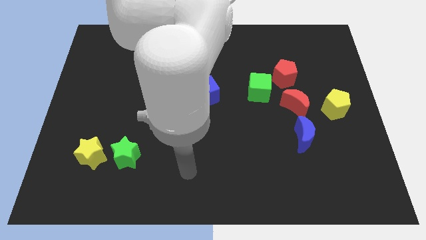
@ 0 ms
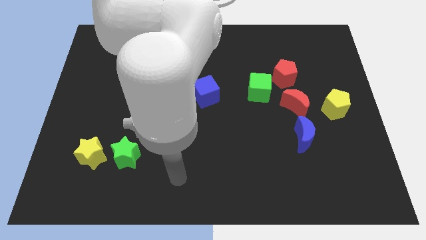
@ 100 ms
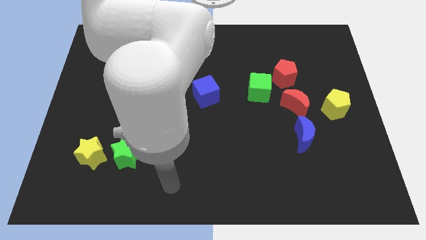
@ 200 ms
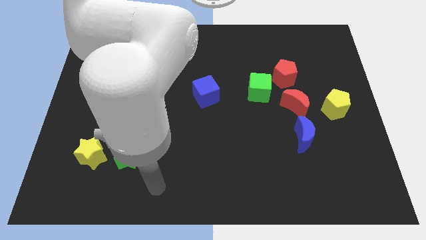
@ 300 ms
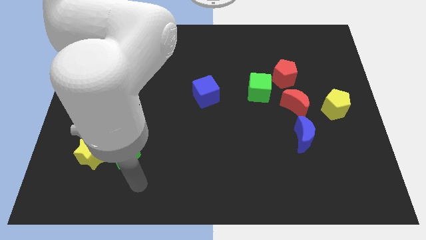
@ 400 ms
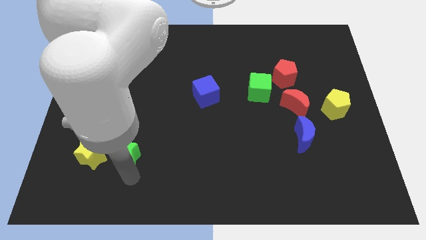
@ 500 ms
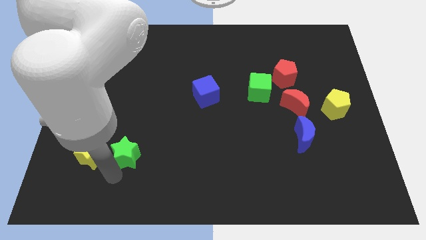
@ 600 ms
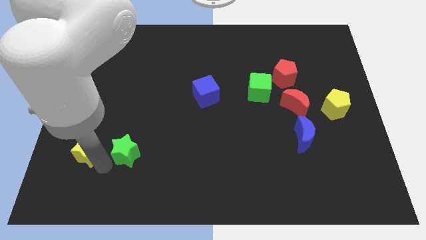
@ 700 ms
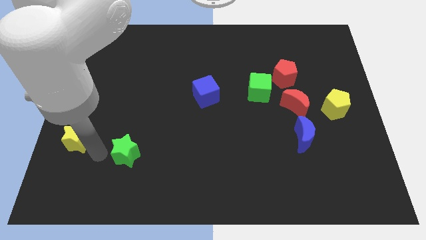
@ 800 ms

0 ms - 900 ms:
separate the green star from the yellow star

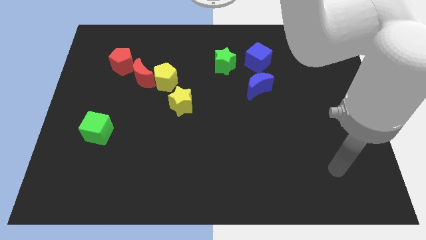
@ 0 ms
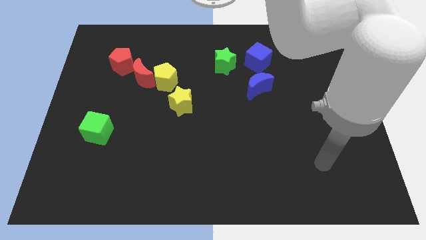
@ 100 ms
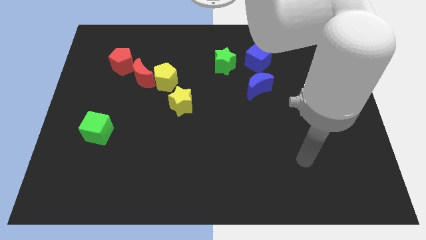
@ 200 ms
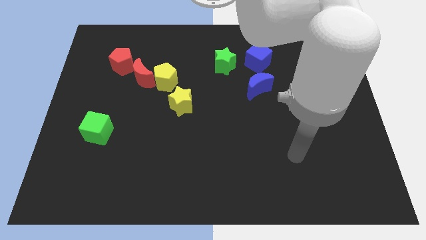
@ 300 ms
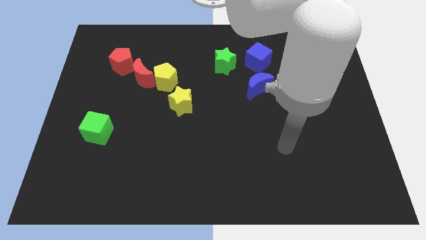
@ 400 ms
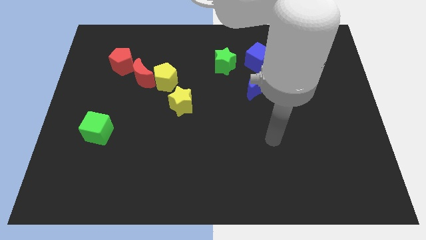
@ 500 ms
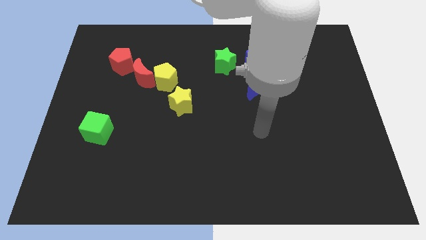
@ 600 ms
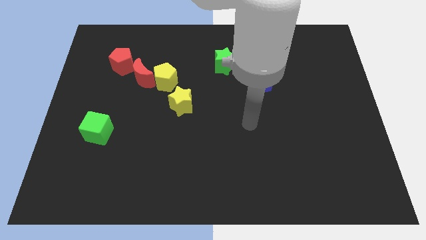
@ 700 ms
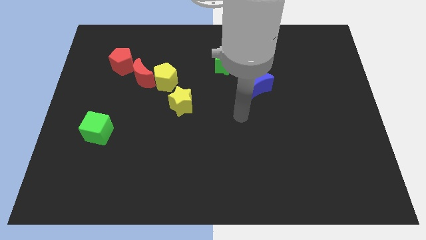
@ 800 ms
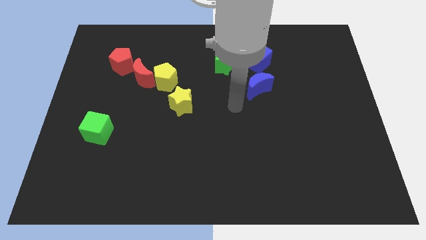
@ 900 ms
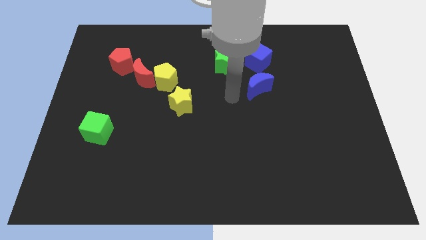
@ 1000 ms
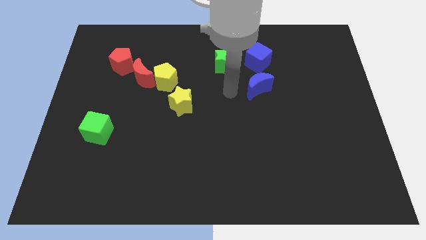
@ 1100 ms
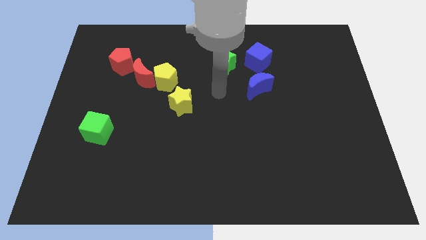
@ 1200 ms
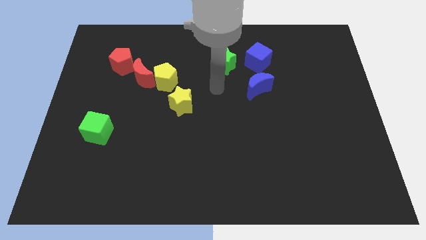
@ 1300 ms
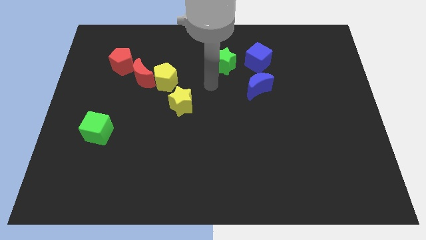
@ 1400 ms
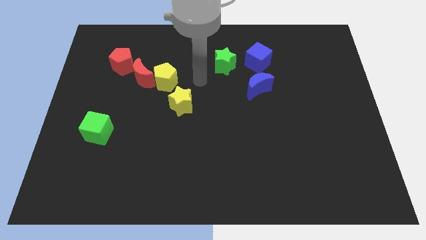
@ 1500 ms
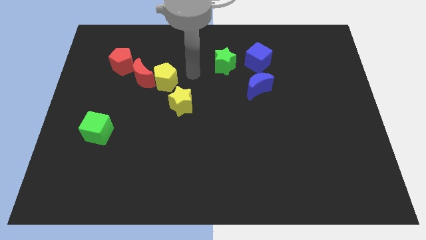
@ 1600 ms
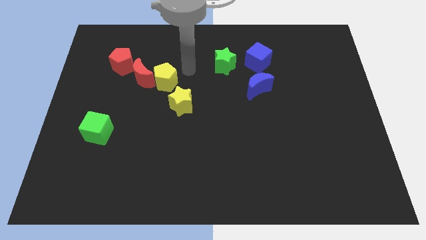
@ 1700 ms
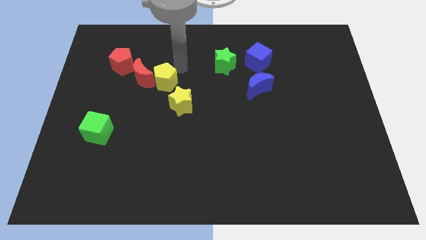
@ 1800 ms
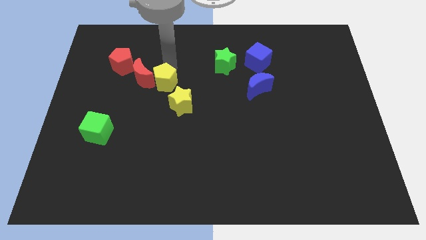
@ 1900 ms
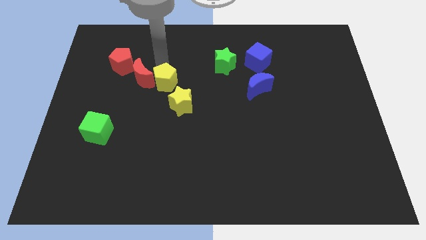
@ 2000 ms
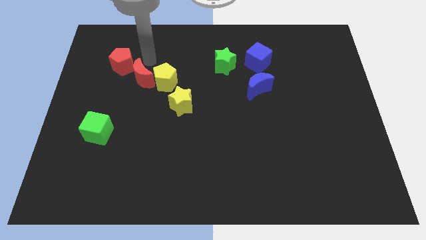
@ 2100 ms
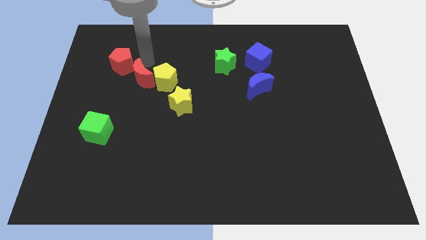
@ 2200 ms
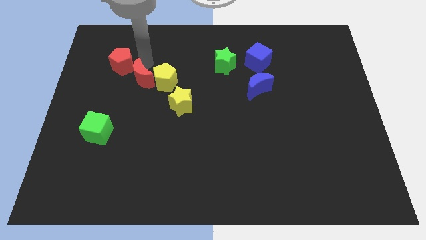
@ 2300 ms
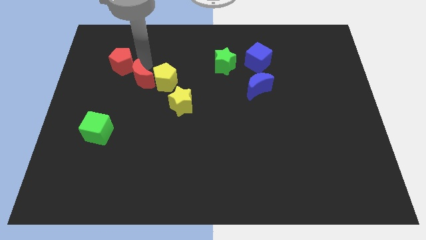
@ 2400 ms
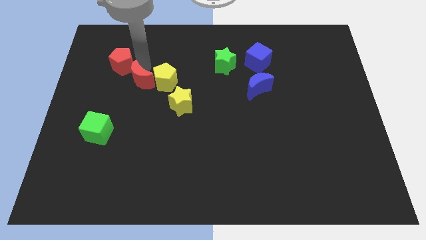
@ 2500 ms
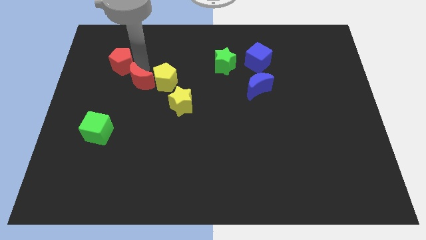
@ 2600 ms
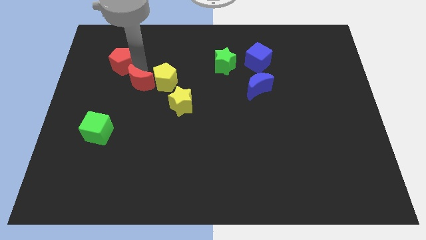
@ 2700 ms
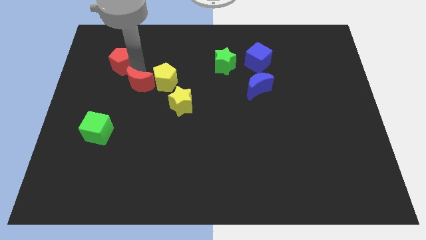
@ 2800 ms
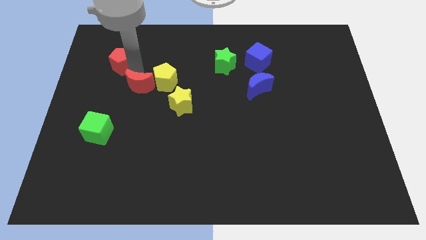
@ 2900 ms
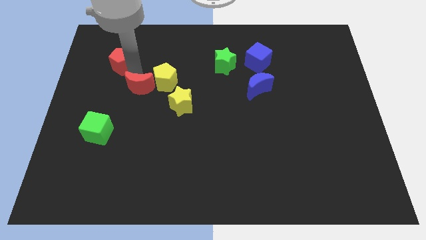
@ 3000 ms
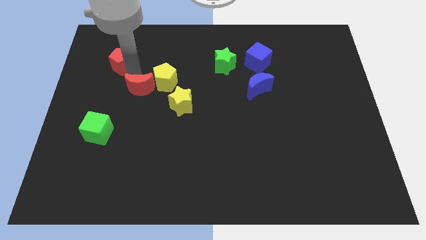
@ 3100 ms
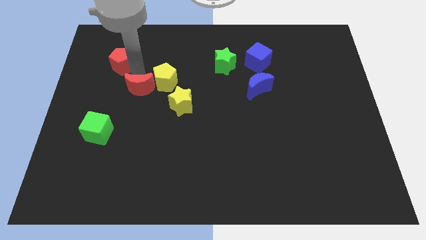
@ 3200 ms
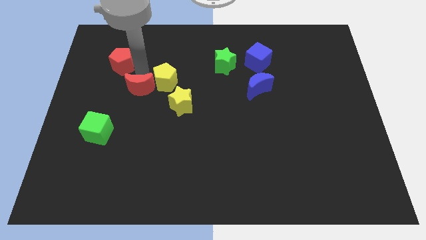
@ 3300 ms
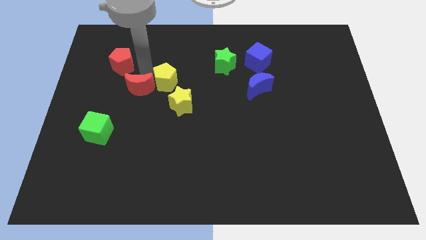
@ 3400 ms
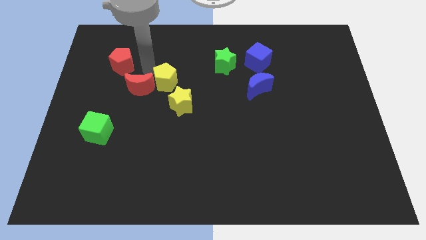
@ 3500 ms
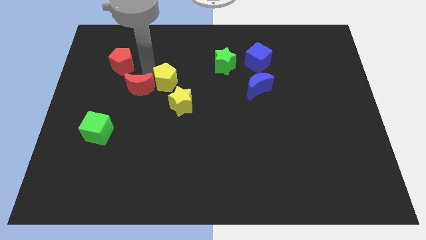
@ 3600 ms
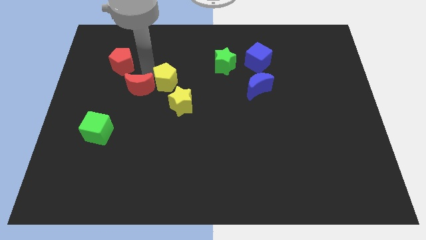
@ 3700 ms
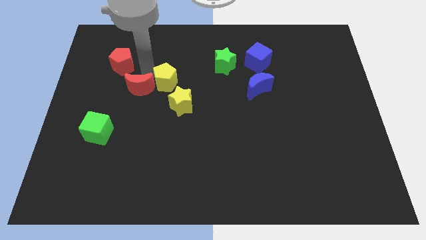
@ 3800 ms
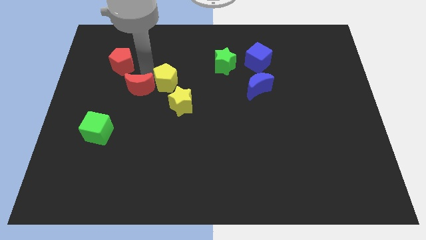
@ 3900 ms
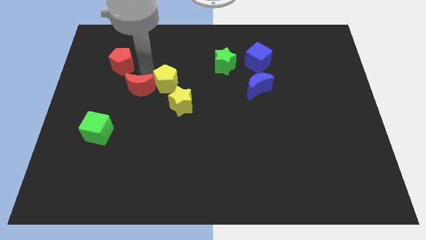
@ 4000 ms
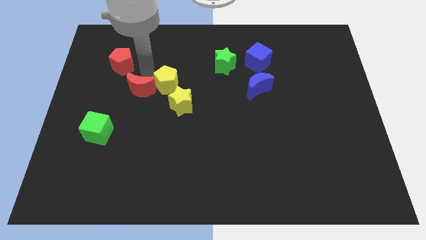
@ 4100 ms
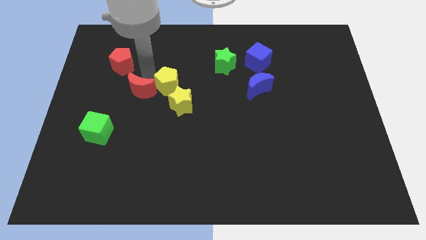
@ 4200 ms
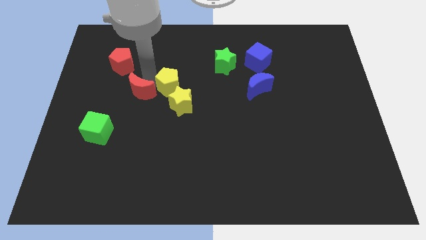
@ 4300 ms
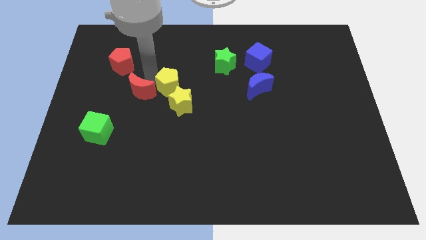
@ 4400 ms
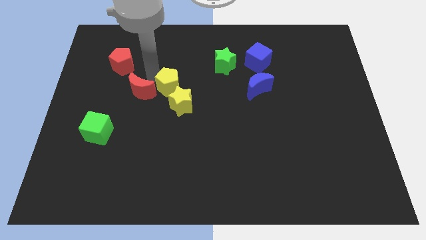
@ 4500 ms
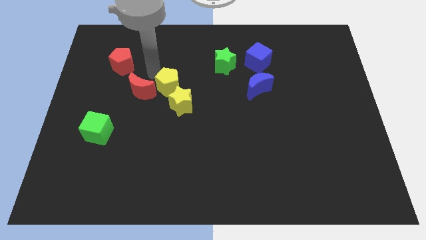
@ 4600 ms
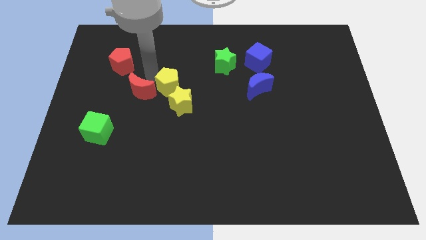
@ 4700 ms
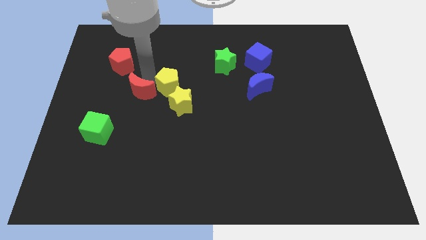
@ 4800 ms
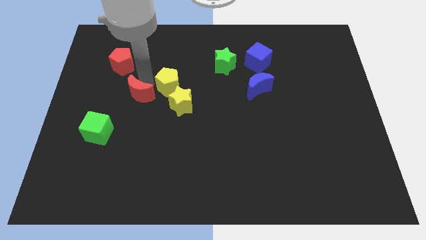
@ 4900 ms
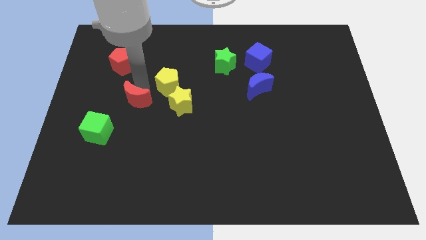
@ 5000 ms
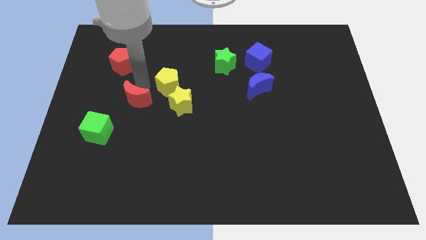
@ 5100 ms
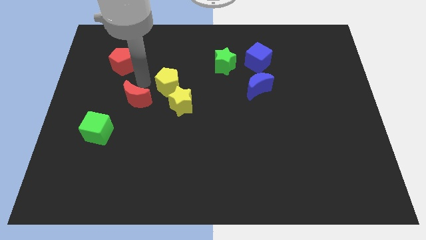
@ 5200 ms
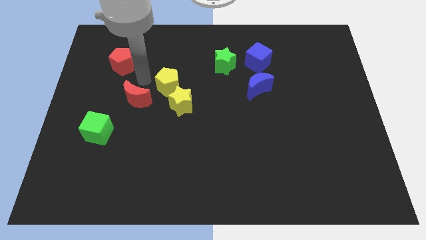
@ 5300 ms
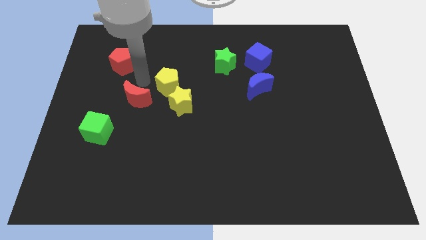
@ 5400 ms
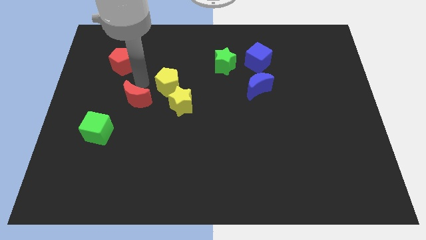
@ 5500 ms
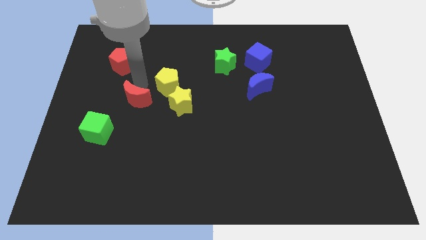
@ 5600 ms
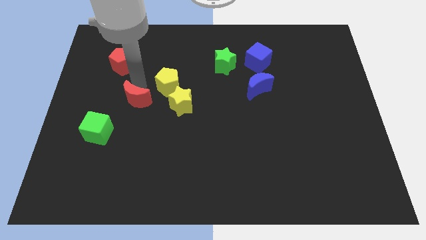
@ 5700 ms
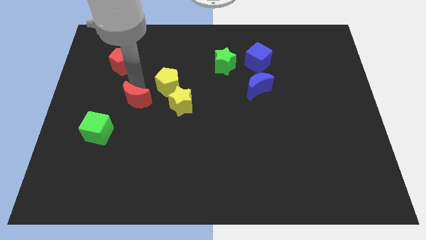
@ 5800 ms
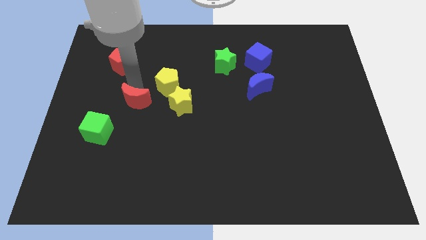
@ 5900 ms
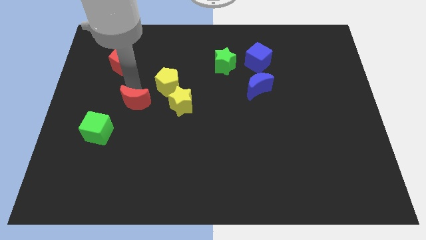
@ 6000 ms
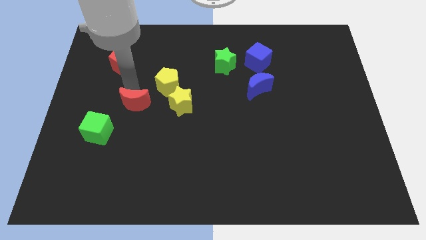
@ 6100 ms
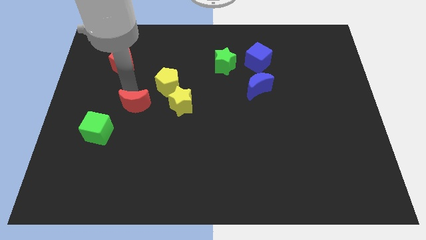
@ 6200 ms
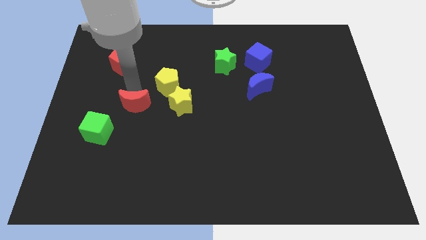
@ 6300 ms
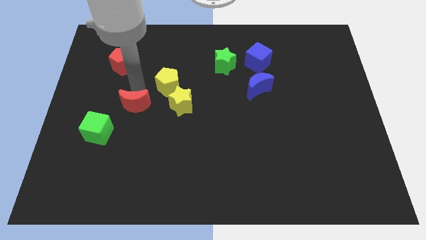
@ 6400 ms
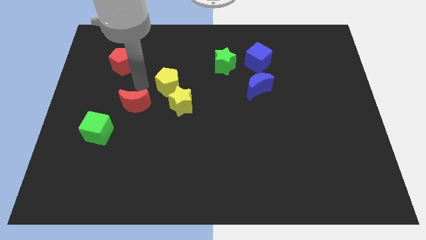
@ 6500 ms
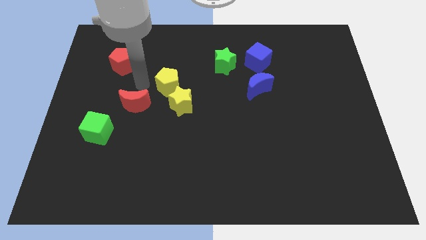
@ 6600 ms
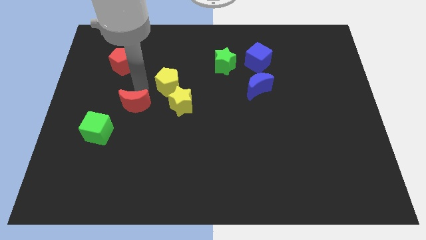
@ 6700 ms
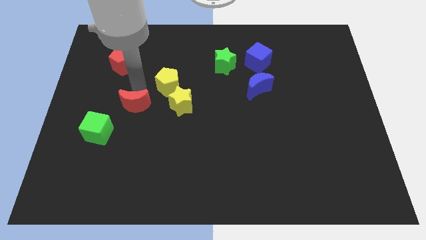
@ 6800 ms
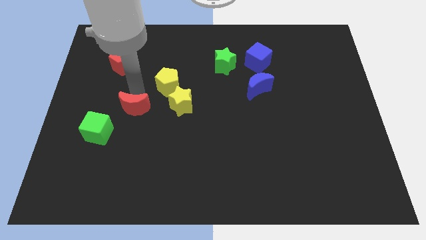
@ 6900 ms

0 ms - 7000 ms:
separate the red moon from the yellow pentagon and red pentagon

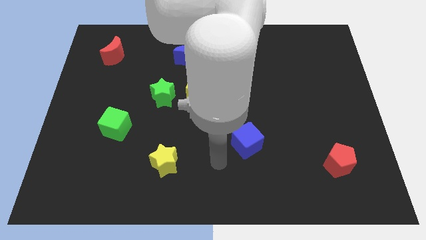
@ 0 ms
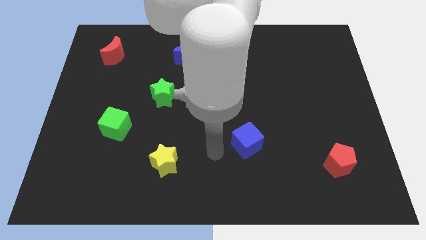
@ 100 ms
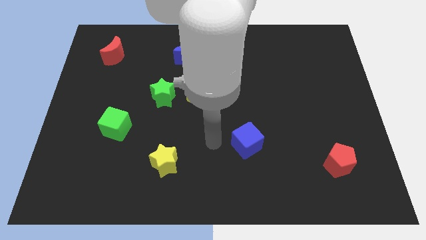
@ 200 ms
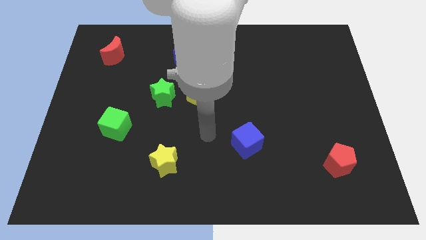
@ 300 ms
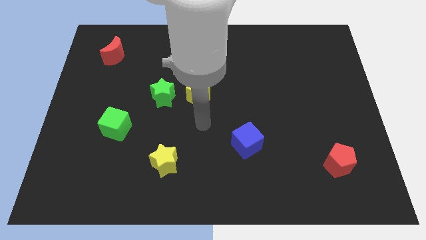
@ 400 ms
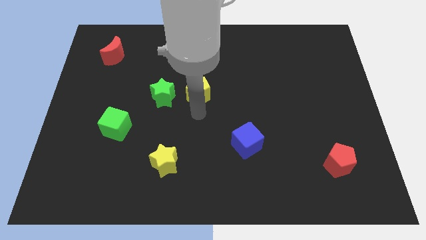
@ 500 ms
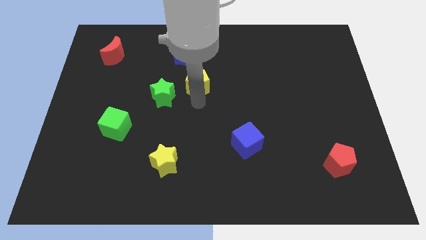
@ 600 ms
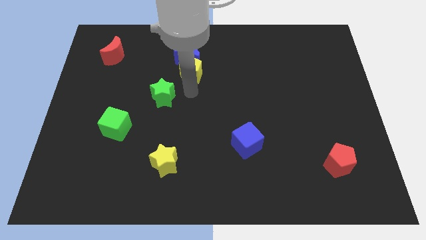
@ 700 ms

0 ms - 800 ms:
move the green star away from the yellow pentagon

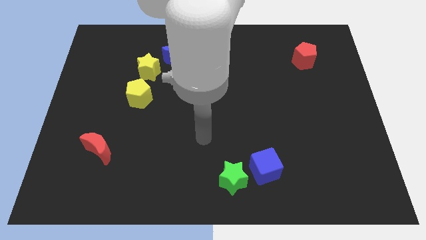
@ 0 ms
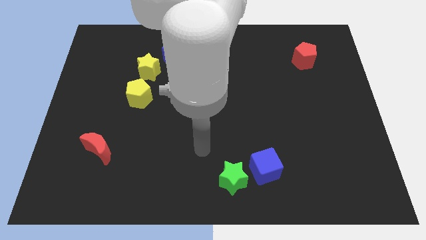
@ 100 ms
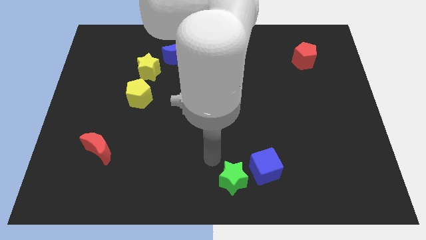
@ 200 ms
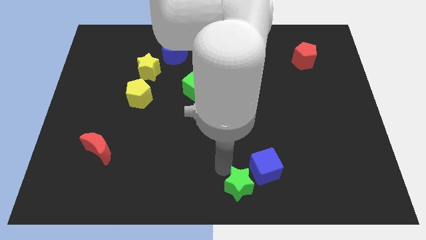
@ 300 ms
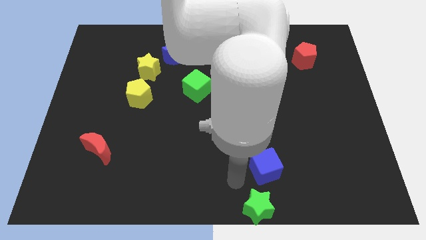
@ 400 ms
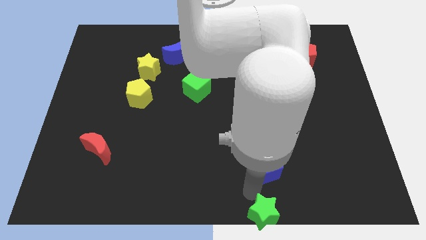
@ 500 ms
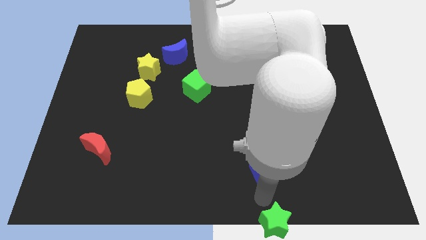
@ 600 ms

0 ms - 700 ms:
move the blue cube away from the green star
